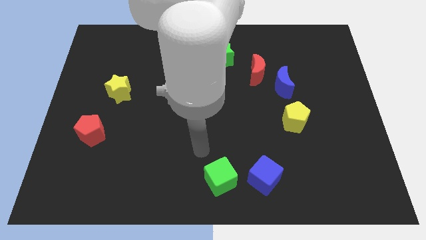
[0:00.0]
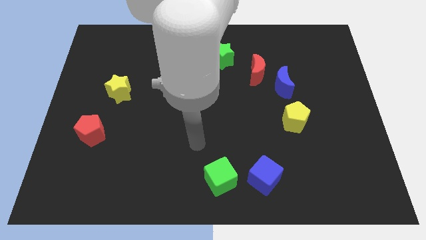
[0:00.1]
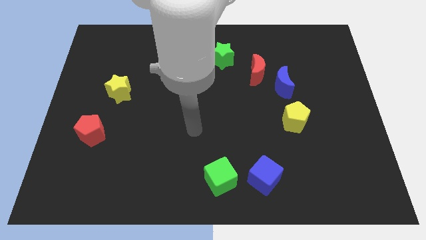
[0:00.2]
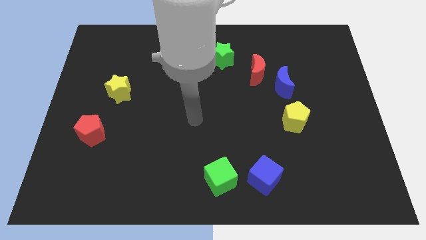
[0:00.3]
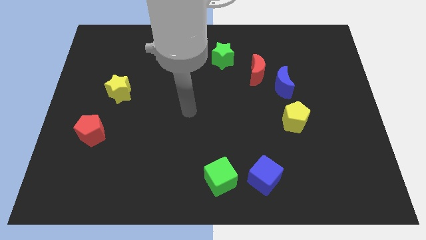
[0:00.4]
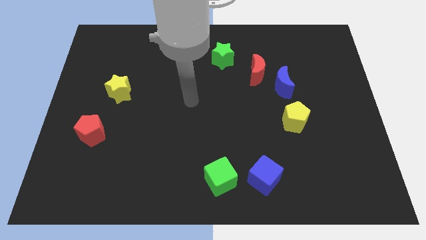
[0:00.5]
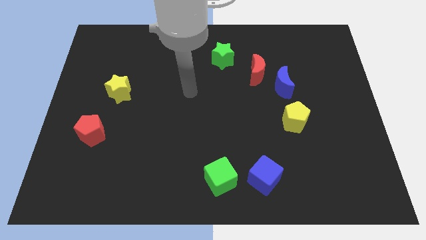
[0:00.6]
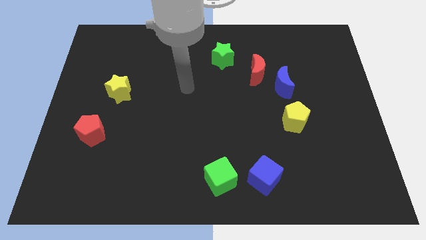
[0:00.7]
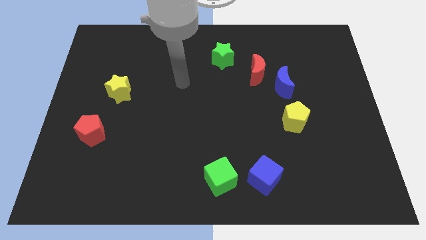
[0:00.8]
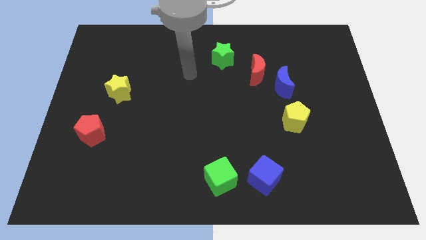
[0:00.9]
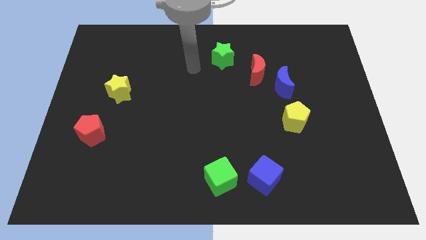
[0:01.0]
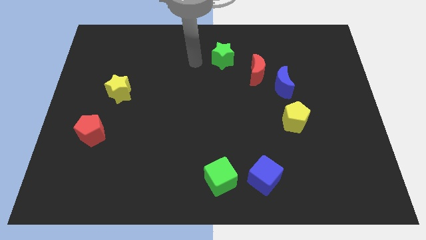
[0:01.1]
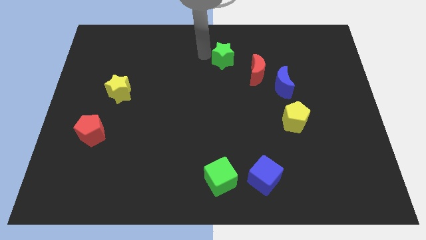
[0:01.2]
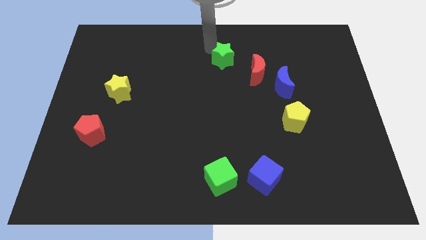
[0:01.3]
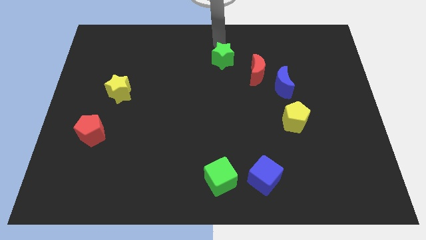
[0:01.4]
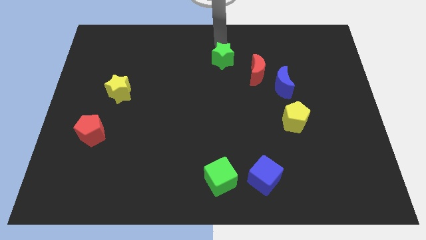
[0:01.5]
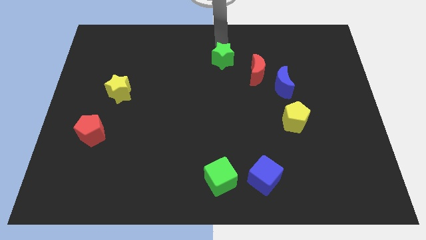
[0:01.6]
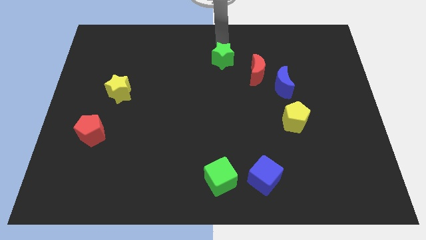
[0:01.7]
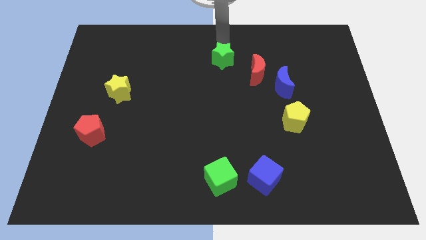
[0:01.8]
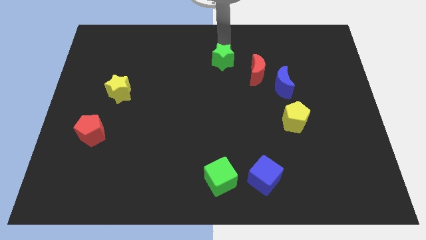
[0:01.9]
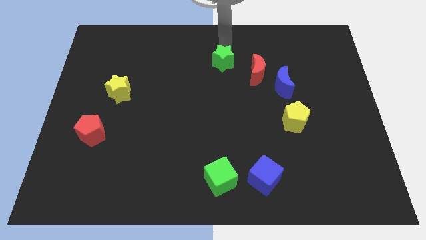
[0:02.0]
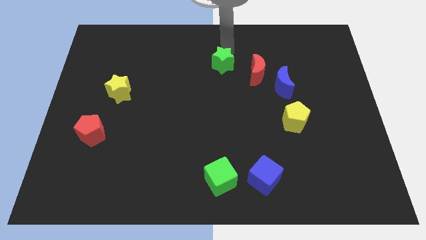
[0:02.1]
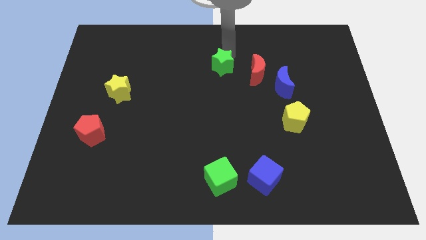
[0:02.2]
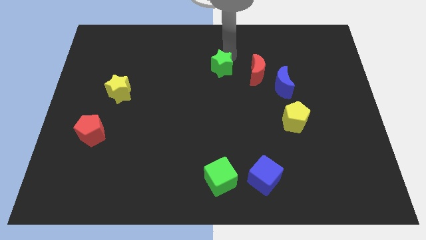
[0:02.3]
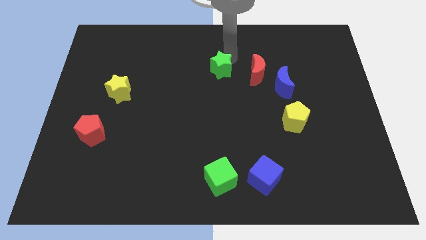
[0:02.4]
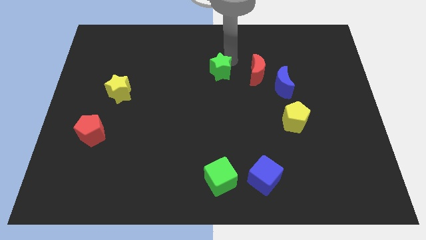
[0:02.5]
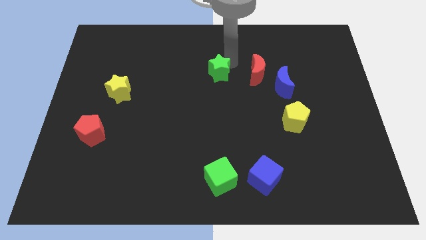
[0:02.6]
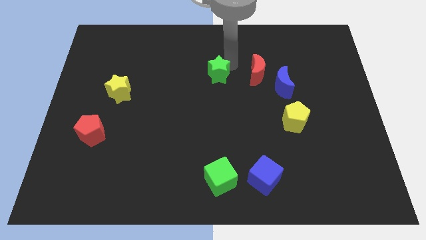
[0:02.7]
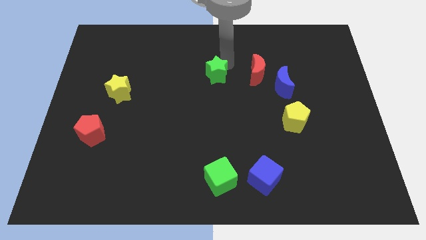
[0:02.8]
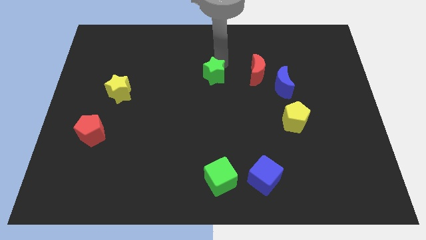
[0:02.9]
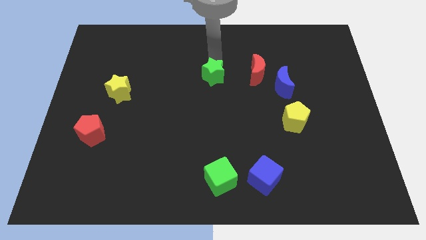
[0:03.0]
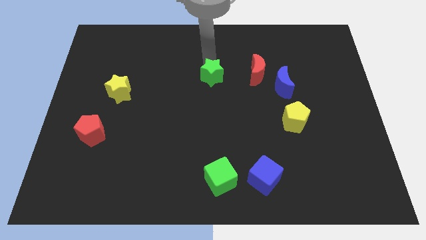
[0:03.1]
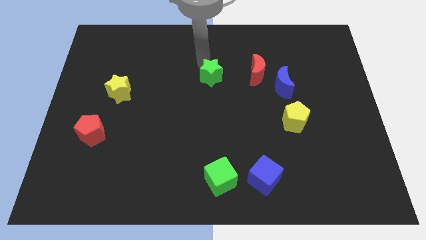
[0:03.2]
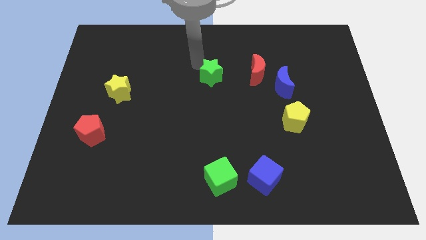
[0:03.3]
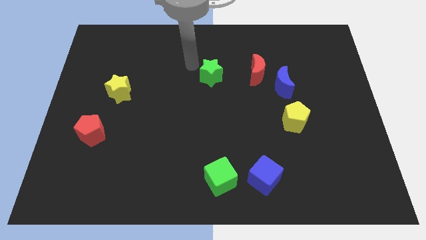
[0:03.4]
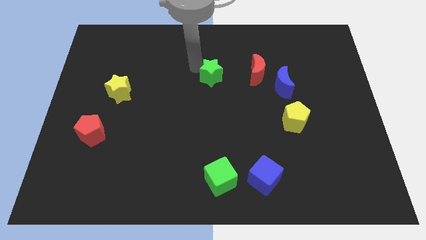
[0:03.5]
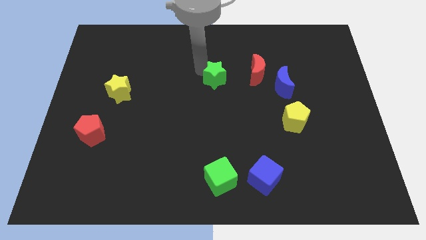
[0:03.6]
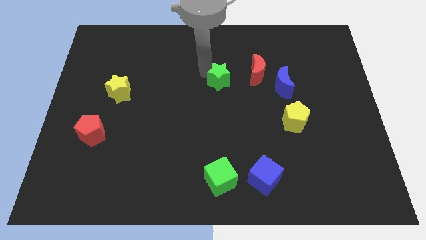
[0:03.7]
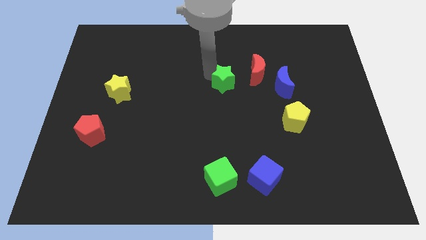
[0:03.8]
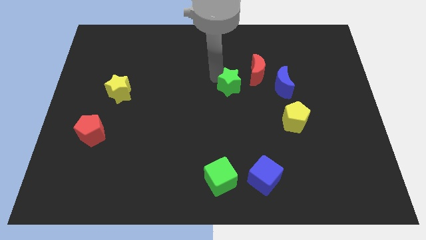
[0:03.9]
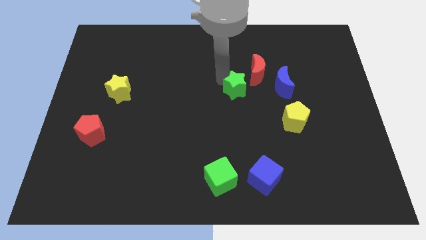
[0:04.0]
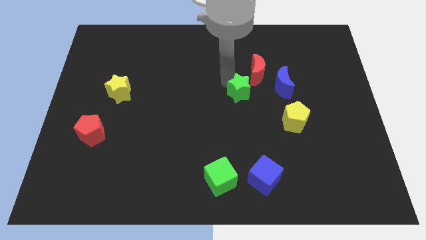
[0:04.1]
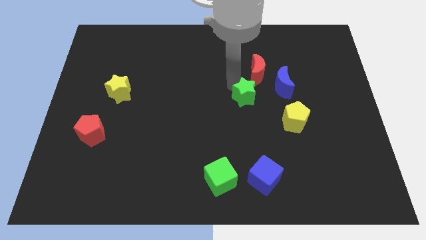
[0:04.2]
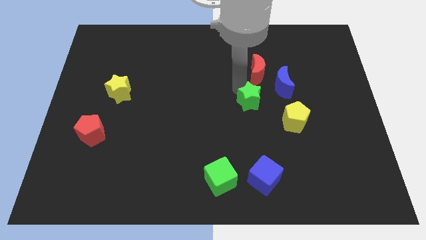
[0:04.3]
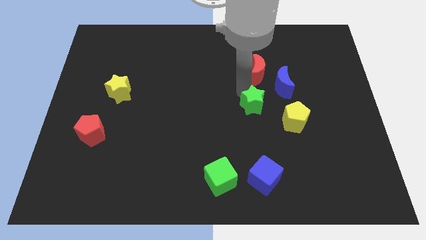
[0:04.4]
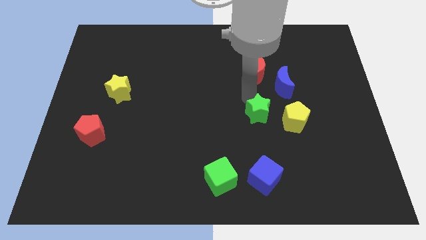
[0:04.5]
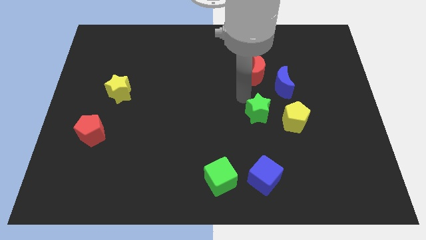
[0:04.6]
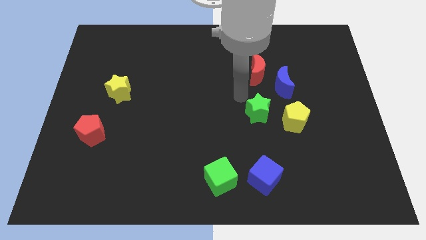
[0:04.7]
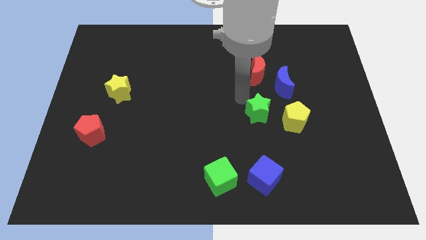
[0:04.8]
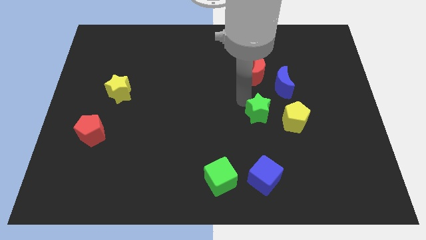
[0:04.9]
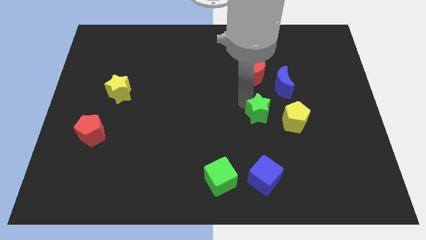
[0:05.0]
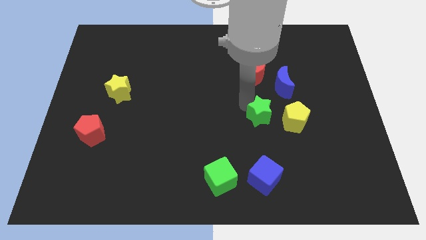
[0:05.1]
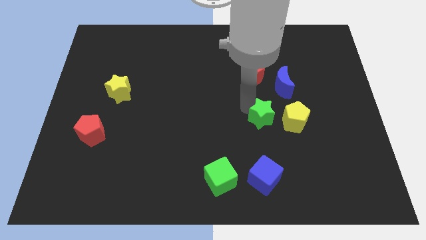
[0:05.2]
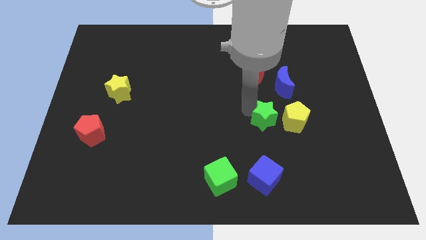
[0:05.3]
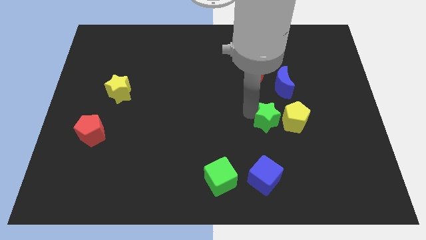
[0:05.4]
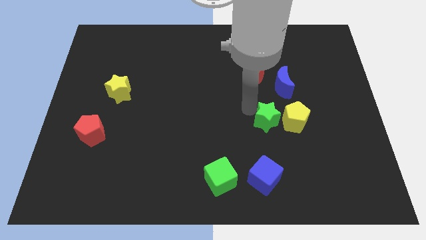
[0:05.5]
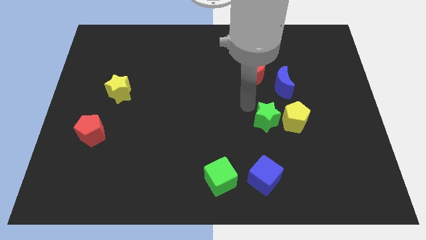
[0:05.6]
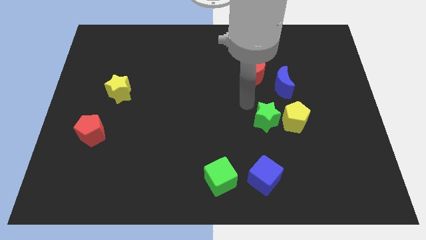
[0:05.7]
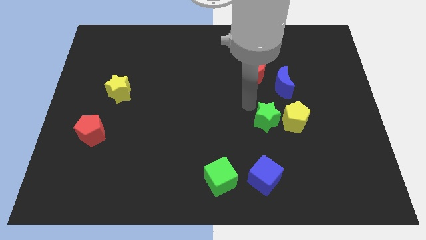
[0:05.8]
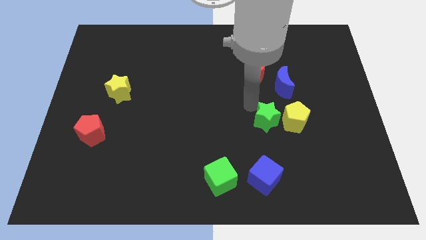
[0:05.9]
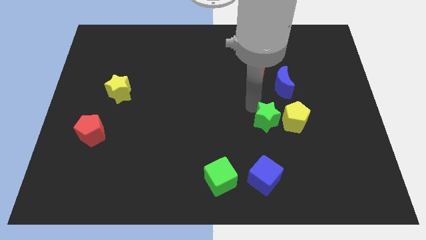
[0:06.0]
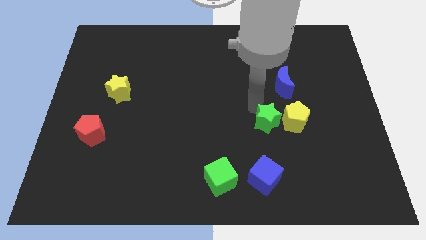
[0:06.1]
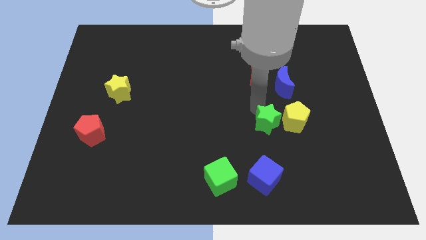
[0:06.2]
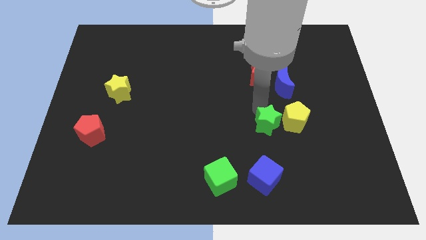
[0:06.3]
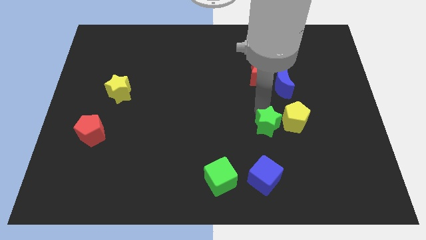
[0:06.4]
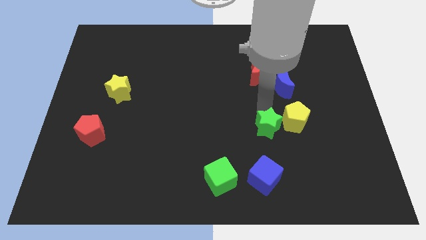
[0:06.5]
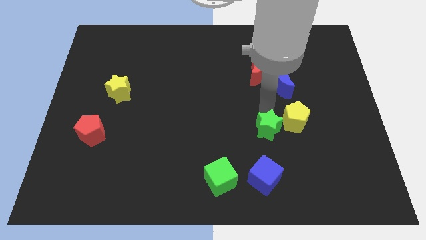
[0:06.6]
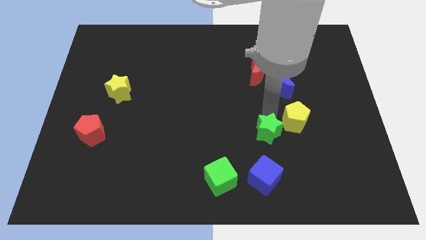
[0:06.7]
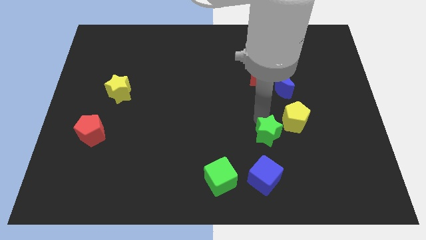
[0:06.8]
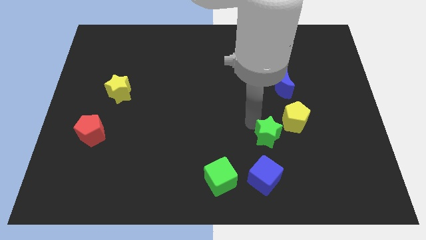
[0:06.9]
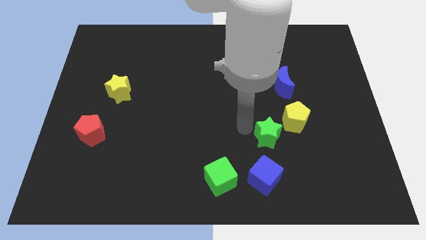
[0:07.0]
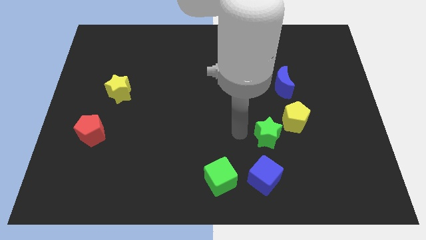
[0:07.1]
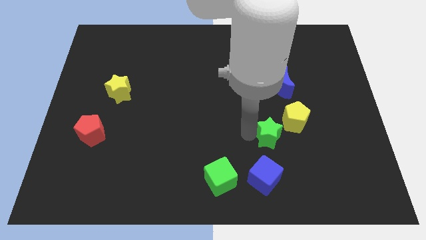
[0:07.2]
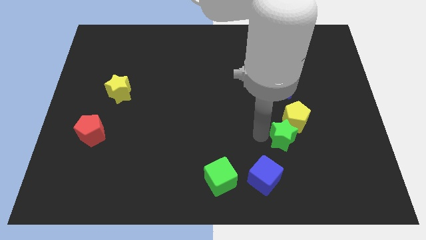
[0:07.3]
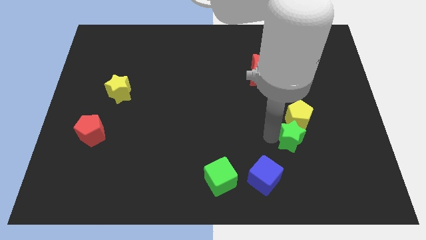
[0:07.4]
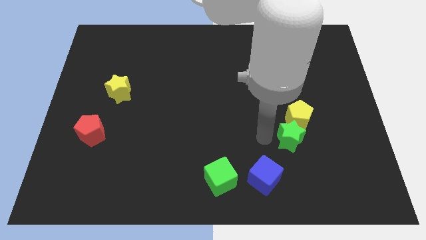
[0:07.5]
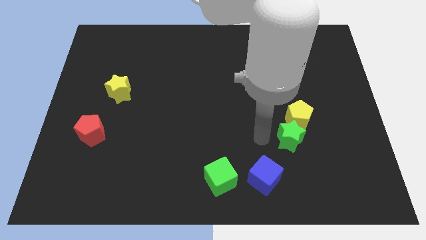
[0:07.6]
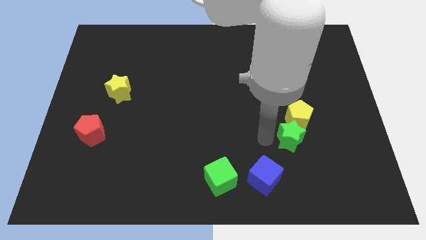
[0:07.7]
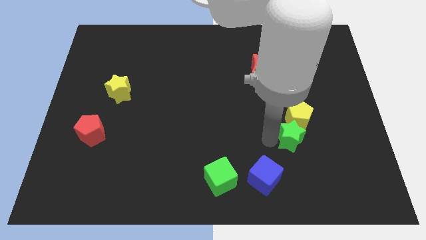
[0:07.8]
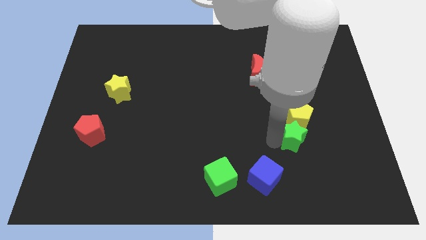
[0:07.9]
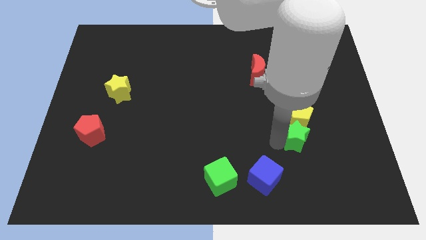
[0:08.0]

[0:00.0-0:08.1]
slide the green star diagonally down and to the right of the yellow pentagon
